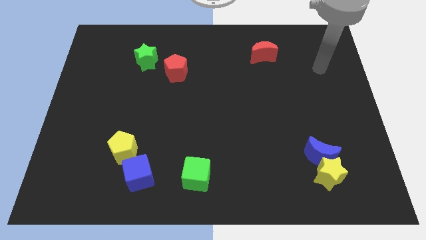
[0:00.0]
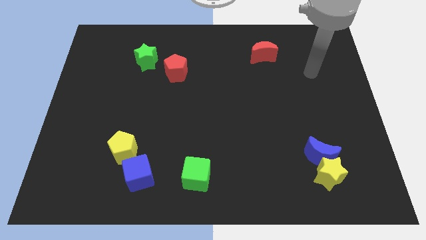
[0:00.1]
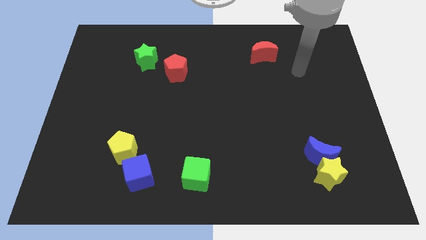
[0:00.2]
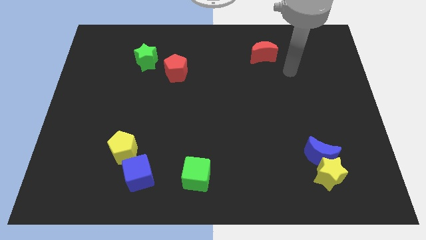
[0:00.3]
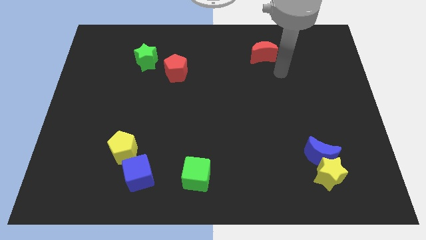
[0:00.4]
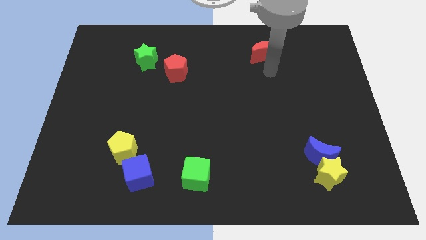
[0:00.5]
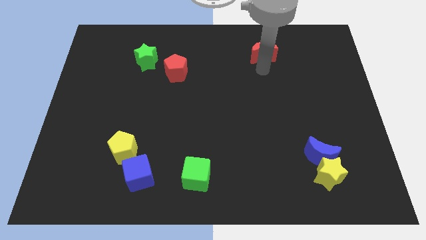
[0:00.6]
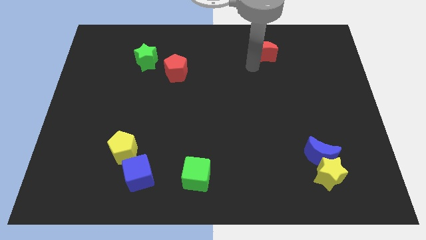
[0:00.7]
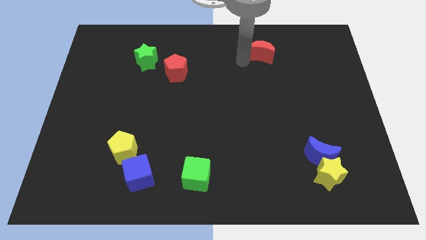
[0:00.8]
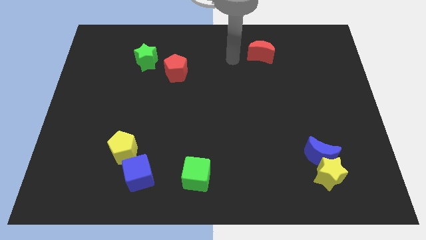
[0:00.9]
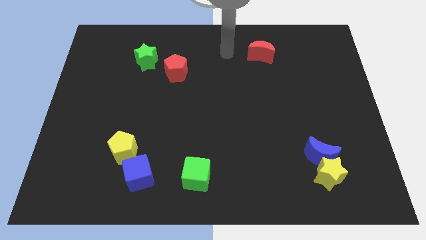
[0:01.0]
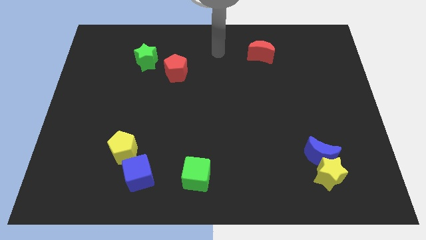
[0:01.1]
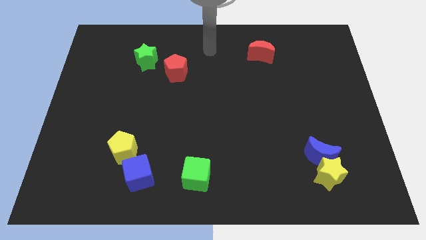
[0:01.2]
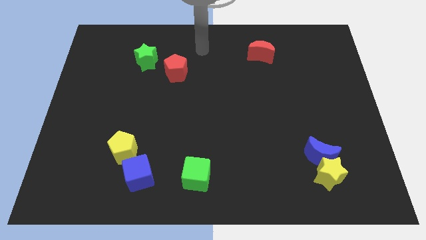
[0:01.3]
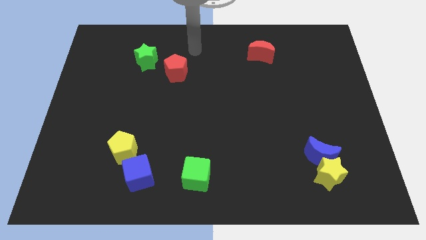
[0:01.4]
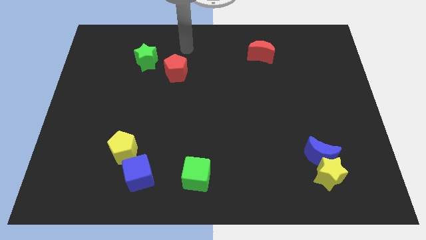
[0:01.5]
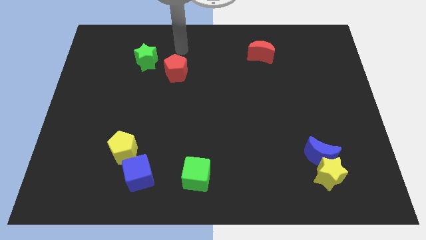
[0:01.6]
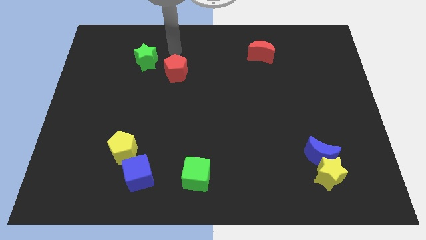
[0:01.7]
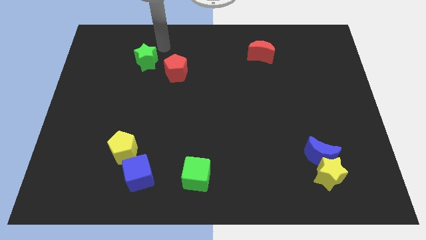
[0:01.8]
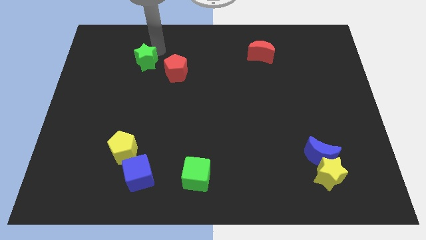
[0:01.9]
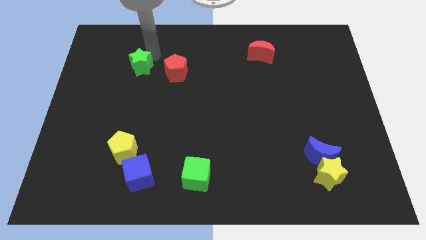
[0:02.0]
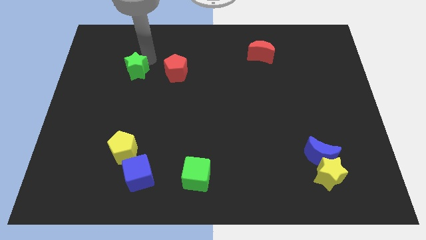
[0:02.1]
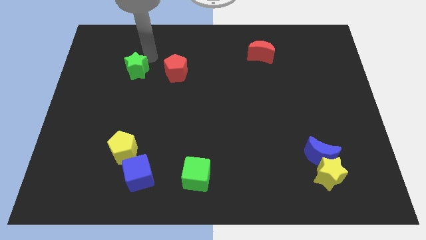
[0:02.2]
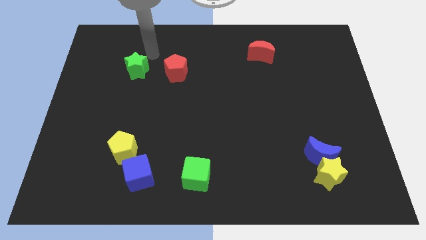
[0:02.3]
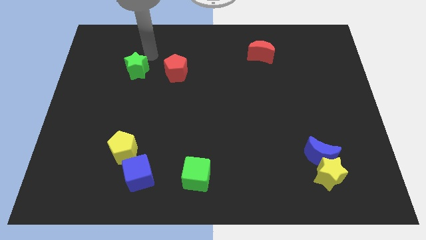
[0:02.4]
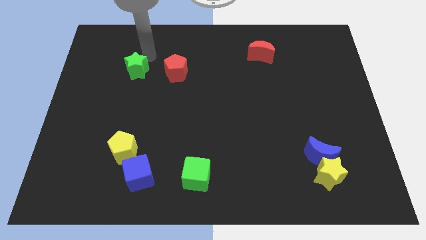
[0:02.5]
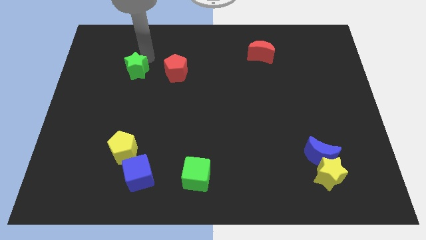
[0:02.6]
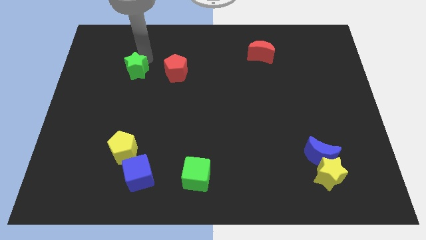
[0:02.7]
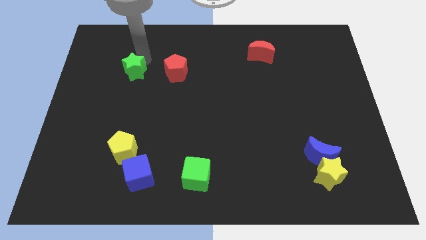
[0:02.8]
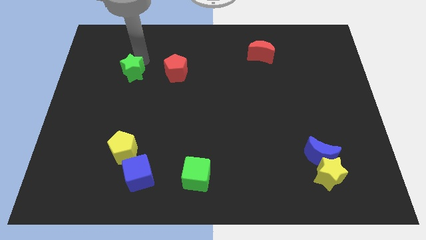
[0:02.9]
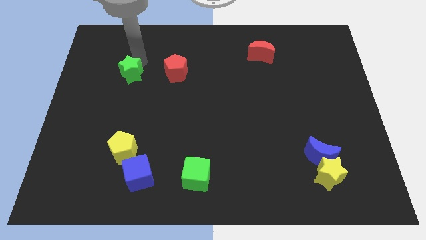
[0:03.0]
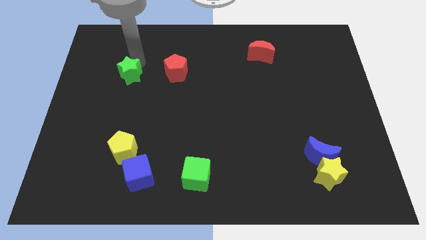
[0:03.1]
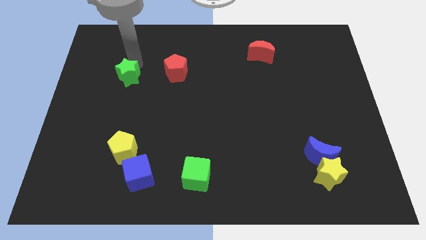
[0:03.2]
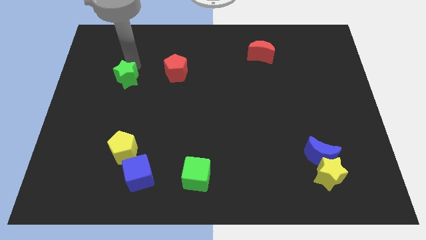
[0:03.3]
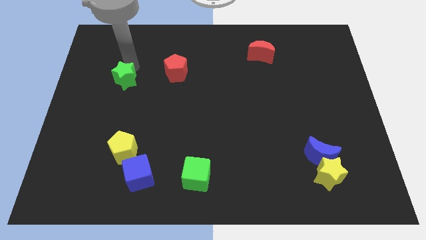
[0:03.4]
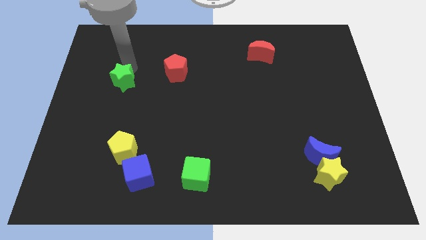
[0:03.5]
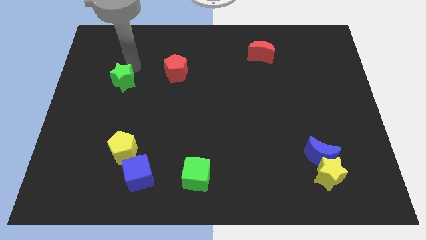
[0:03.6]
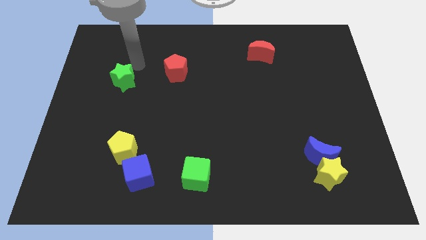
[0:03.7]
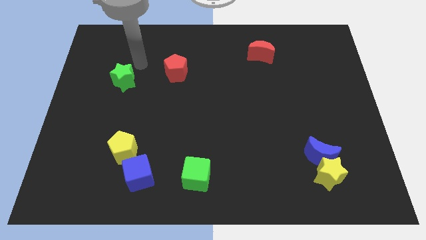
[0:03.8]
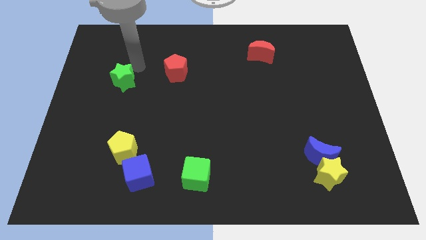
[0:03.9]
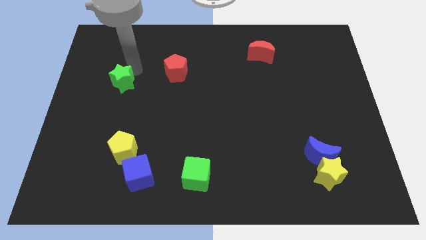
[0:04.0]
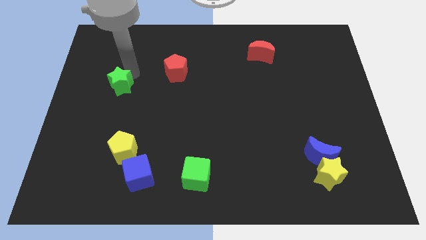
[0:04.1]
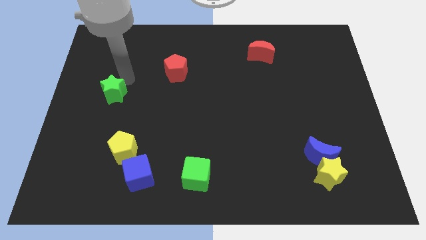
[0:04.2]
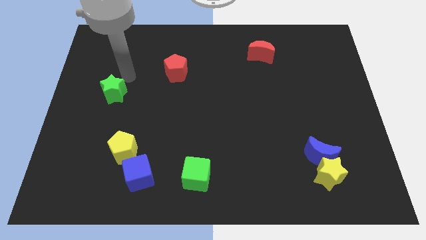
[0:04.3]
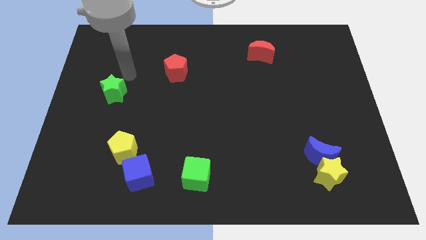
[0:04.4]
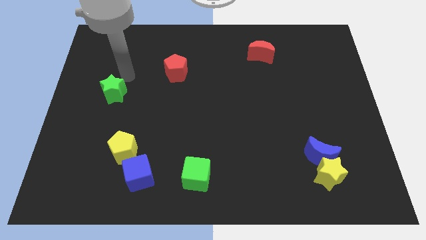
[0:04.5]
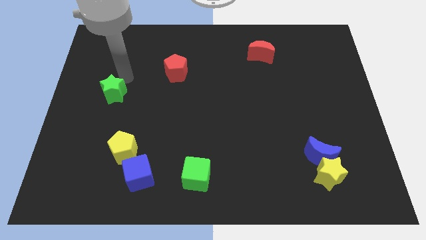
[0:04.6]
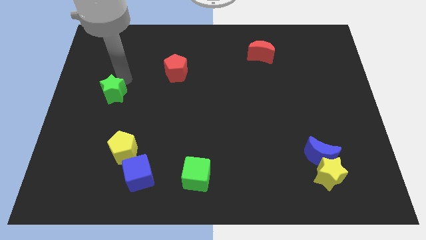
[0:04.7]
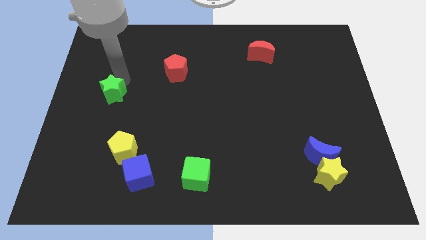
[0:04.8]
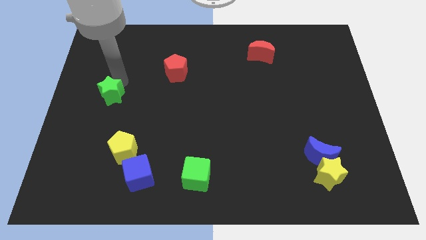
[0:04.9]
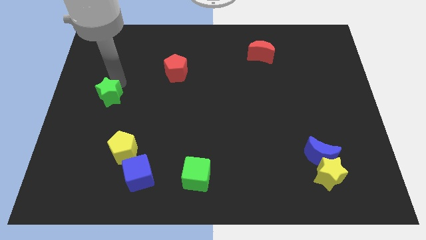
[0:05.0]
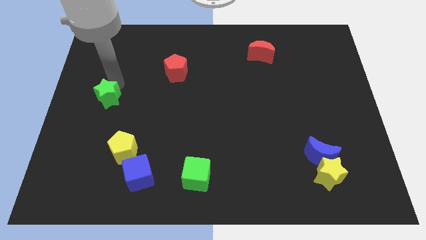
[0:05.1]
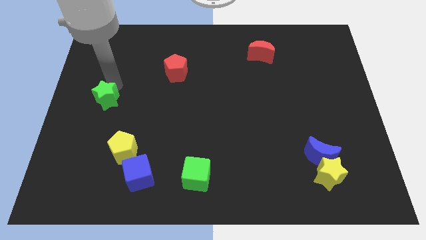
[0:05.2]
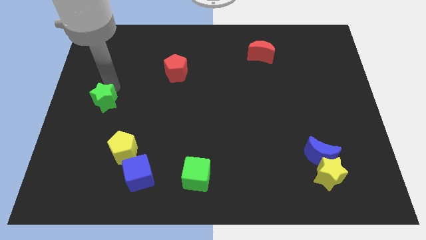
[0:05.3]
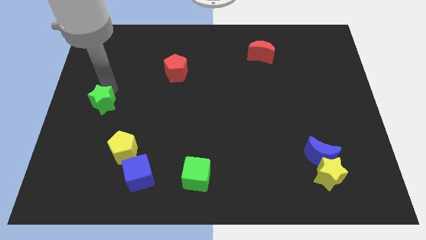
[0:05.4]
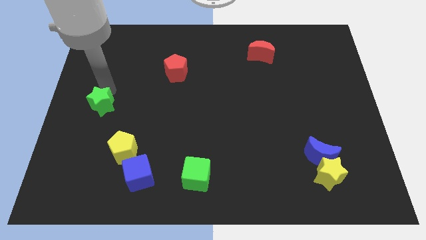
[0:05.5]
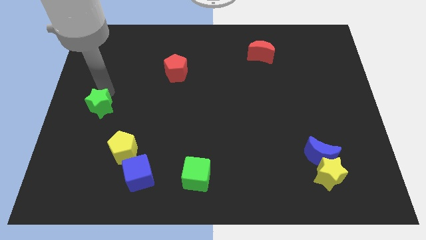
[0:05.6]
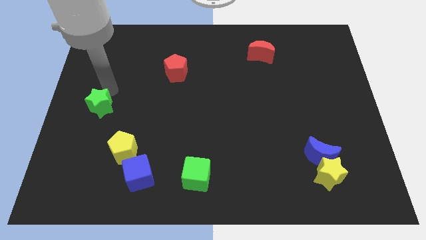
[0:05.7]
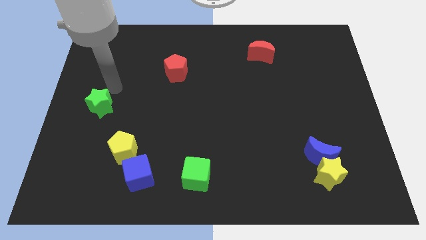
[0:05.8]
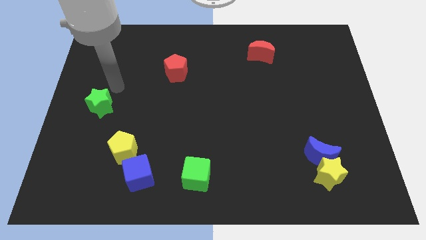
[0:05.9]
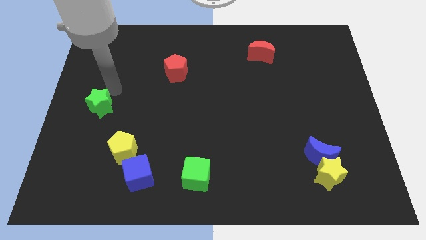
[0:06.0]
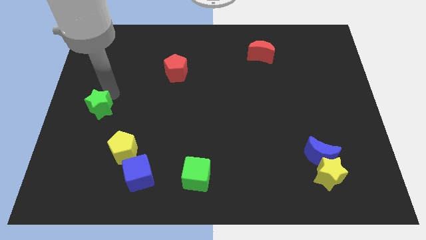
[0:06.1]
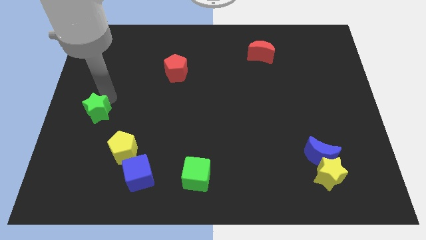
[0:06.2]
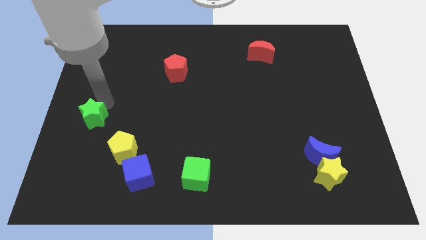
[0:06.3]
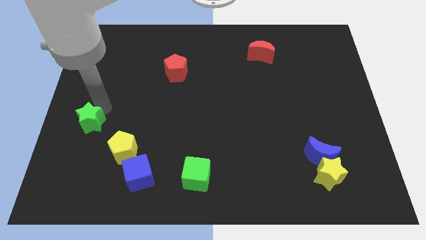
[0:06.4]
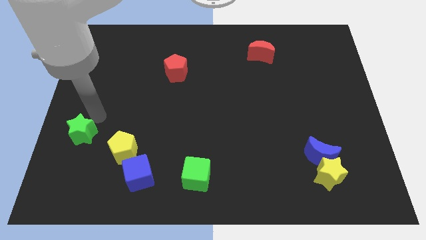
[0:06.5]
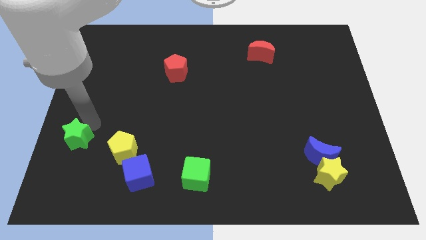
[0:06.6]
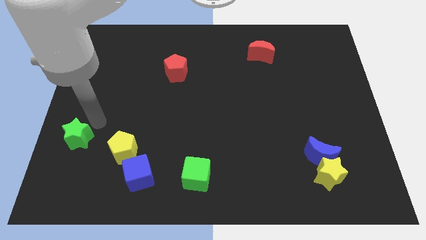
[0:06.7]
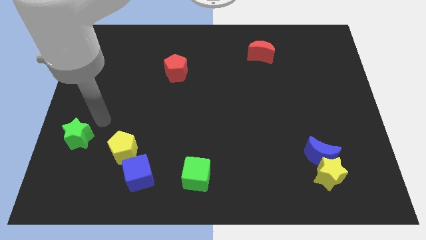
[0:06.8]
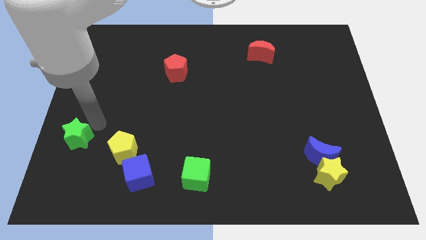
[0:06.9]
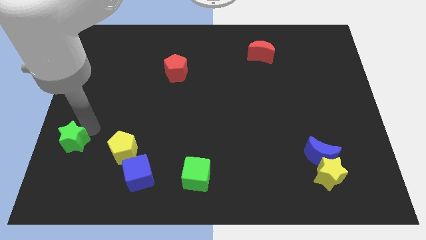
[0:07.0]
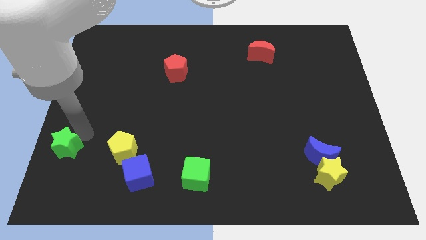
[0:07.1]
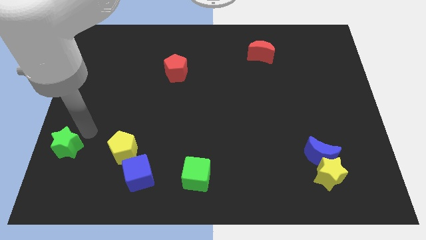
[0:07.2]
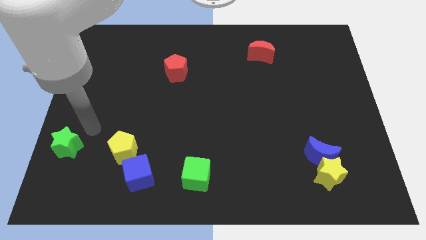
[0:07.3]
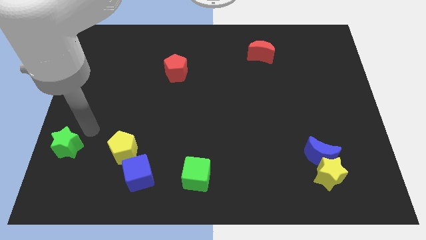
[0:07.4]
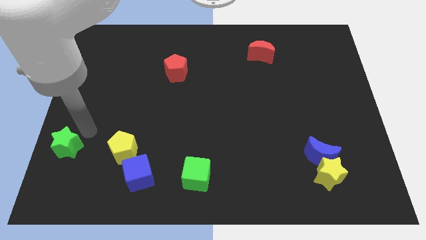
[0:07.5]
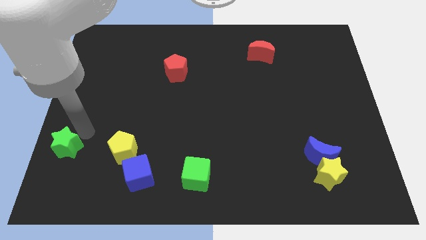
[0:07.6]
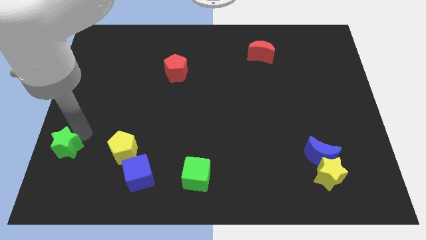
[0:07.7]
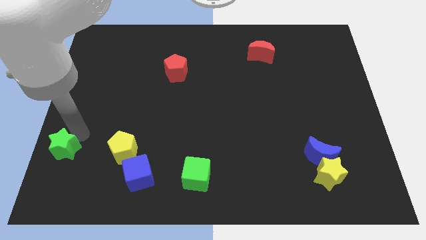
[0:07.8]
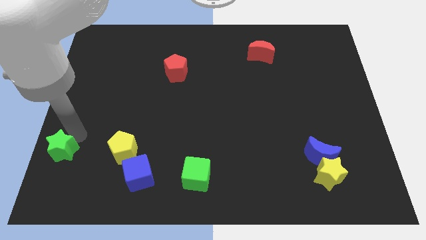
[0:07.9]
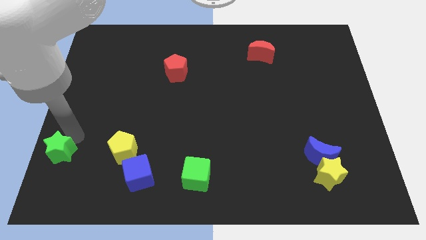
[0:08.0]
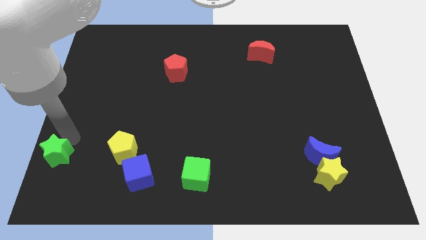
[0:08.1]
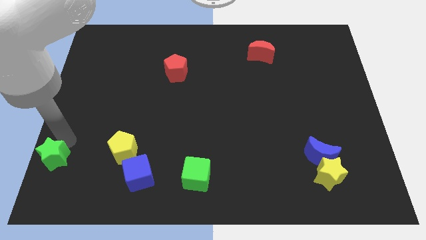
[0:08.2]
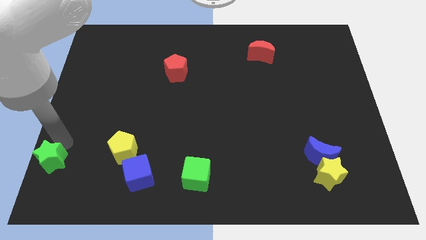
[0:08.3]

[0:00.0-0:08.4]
slide the green star to the bottom left
